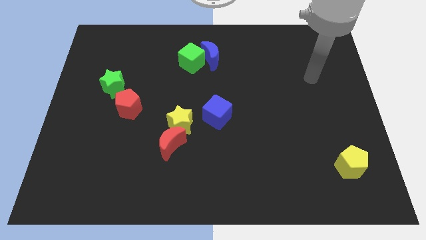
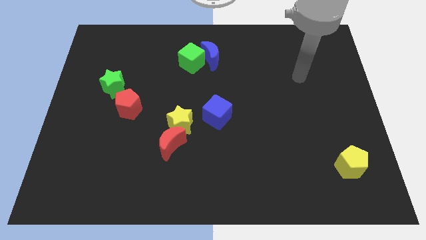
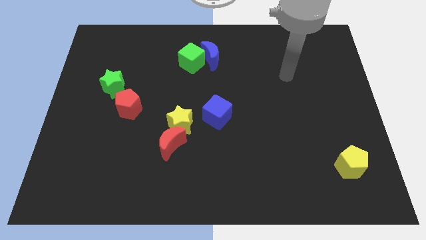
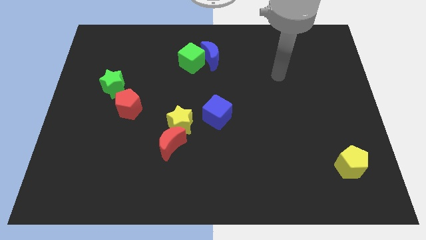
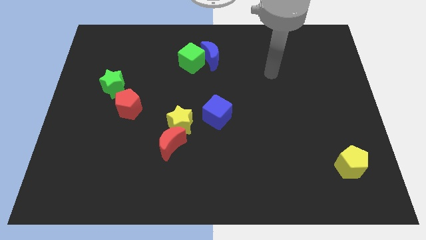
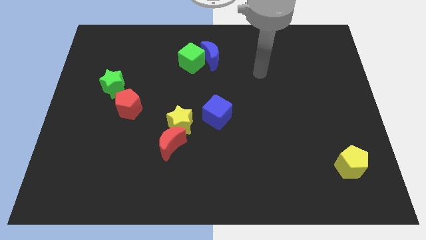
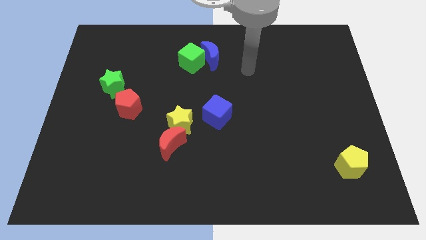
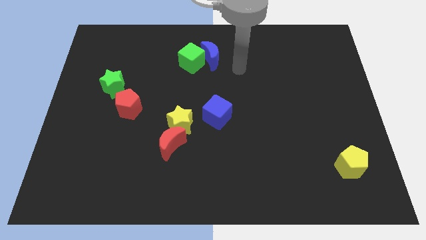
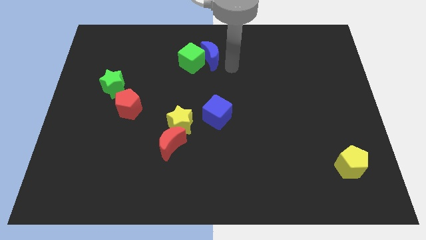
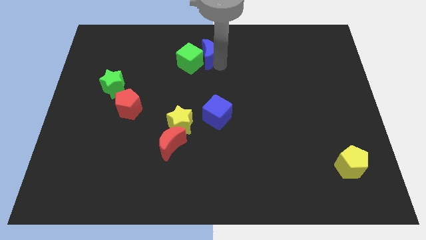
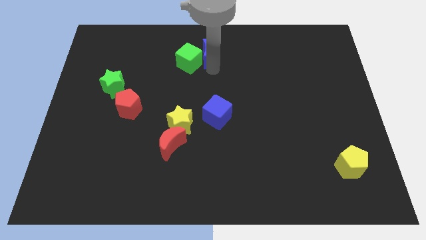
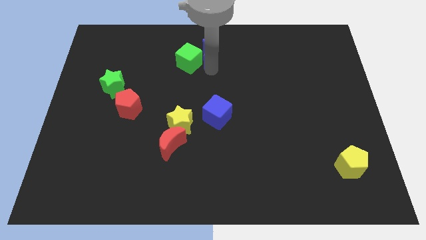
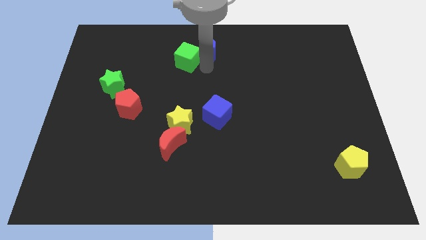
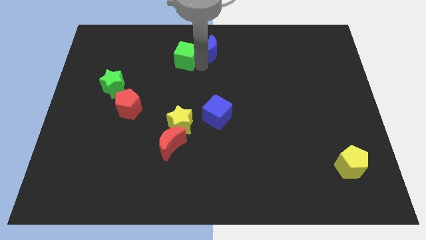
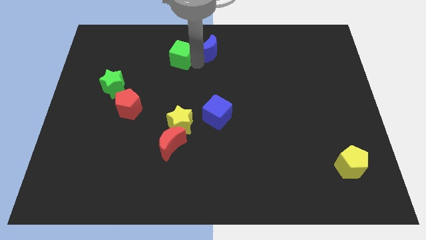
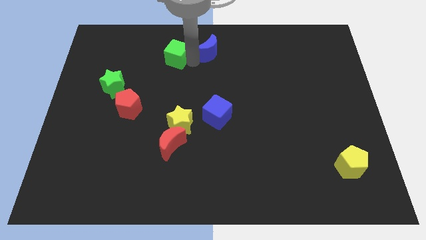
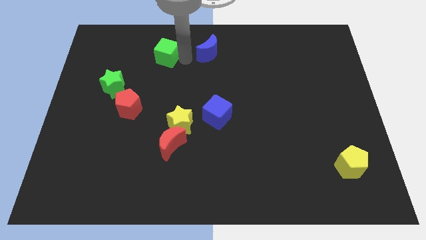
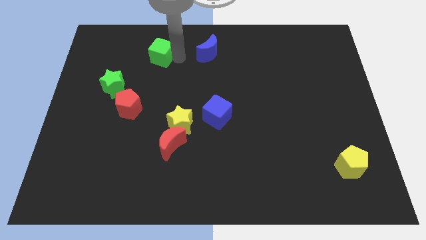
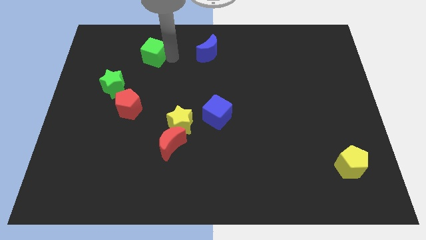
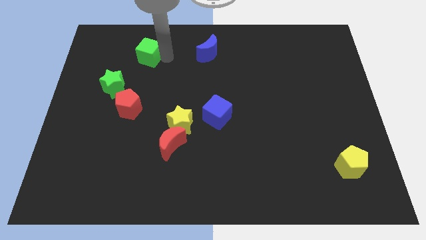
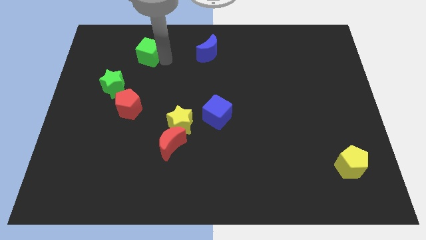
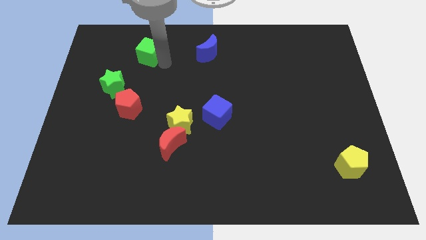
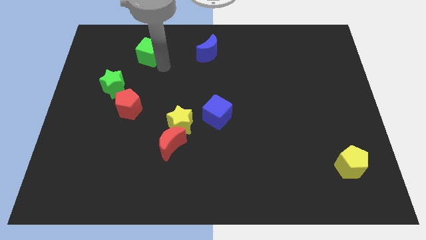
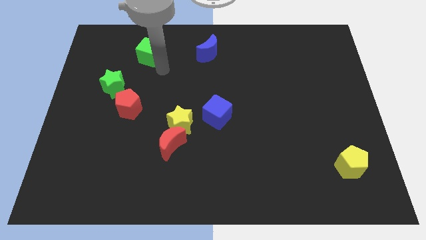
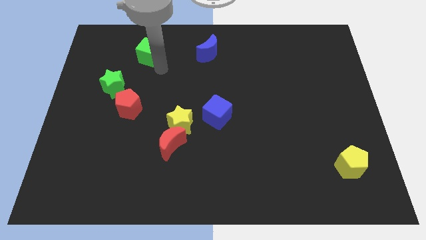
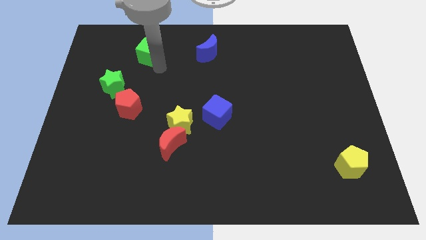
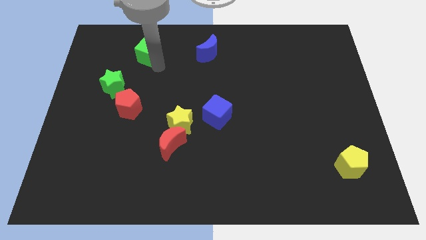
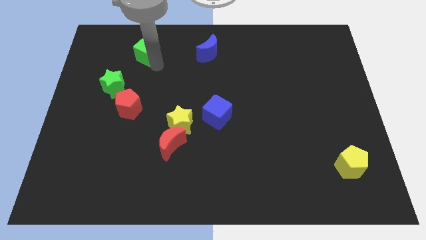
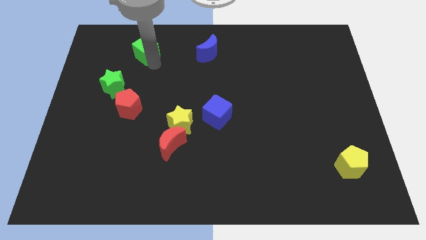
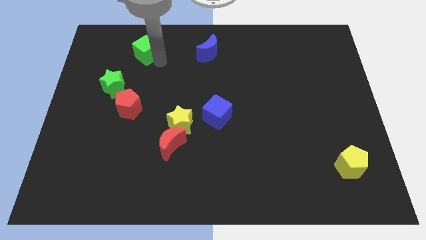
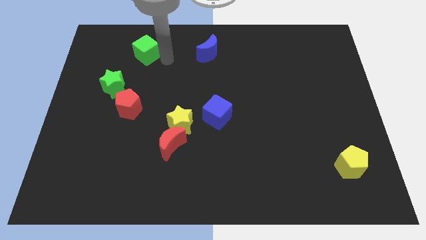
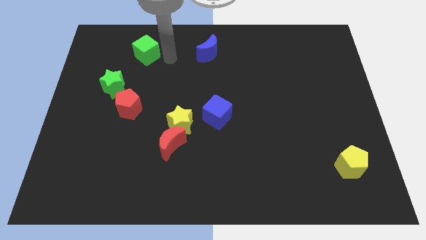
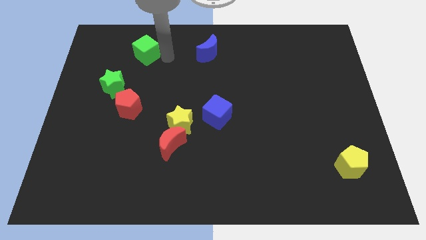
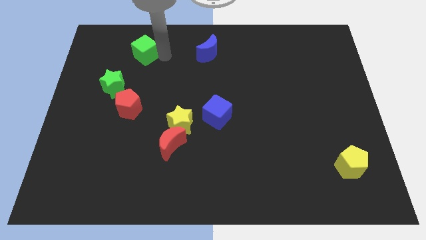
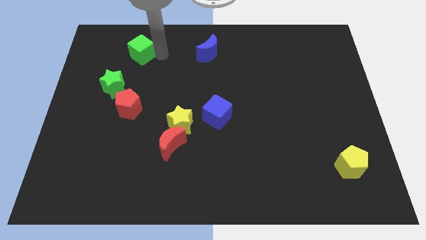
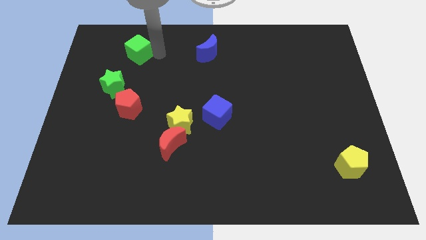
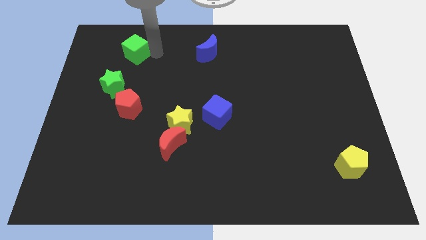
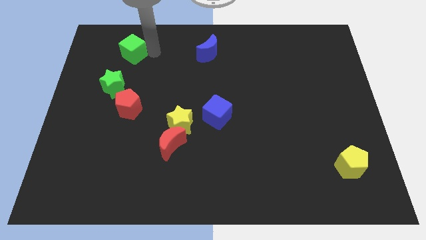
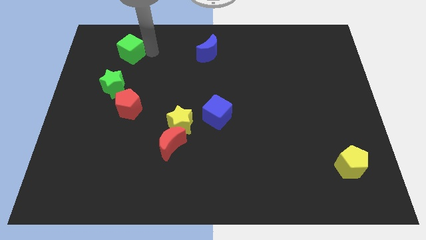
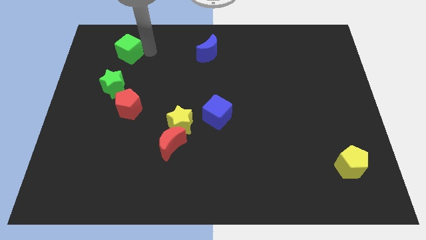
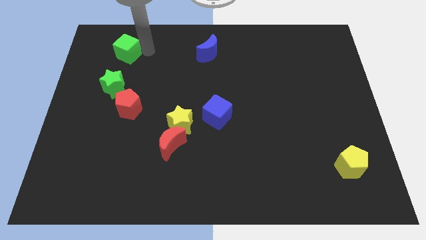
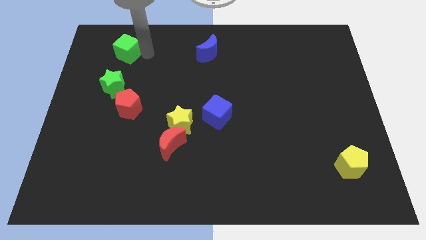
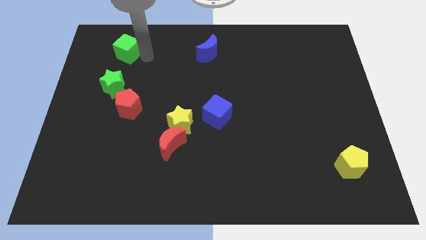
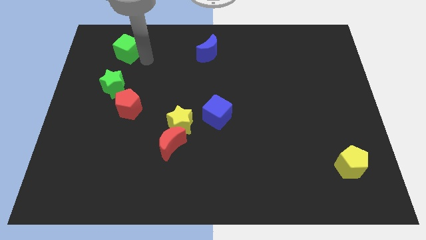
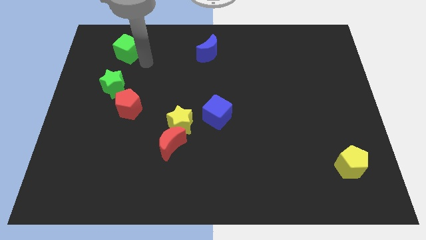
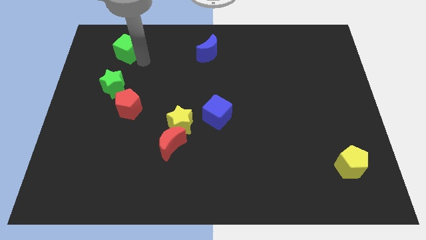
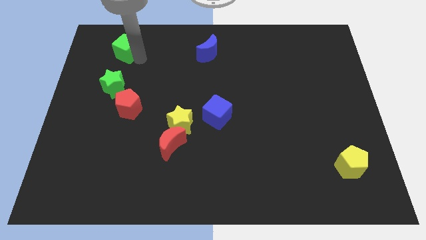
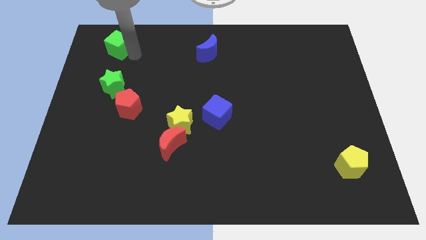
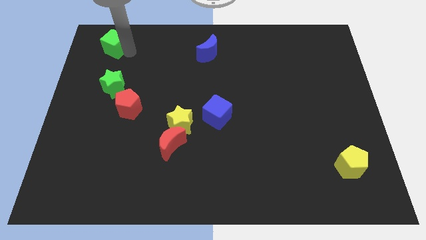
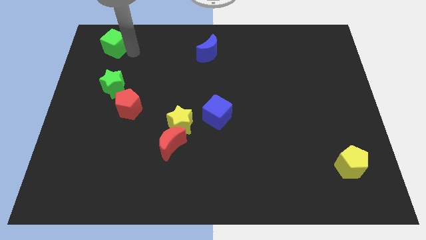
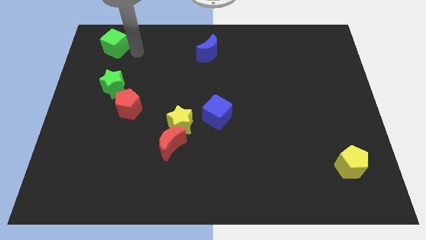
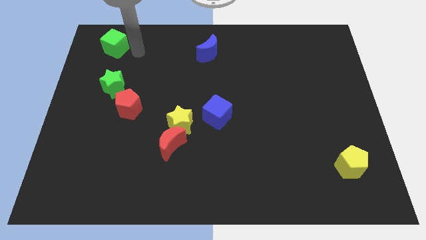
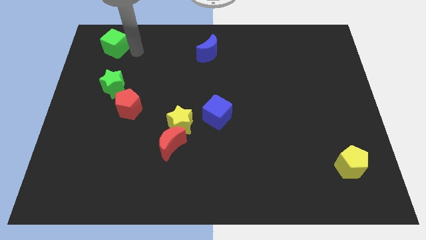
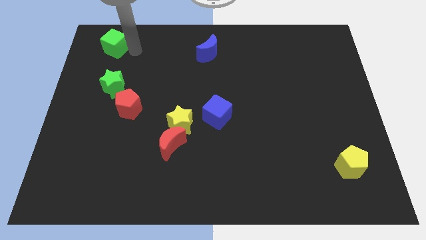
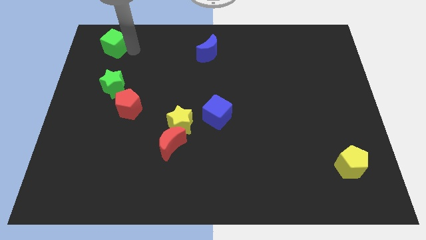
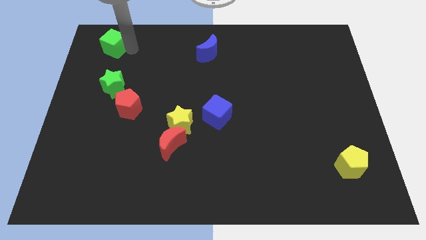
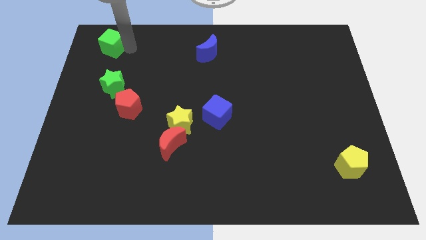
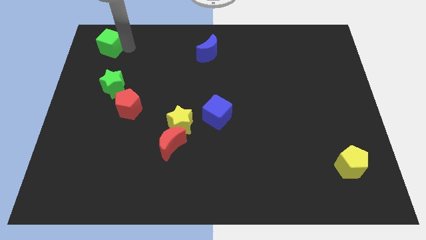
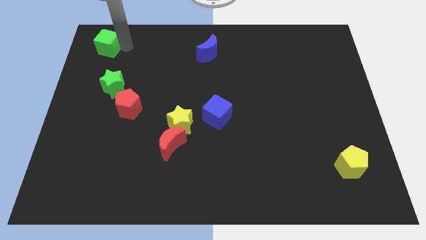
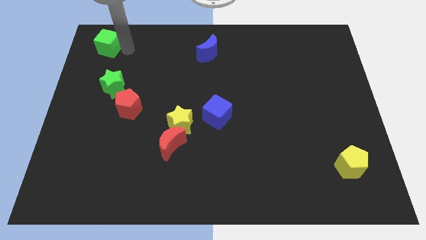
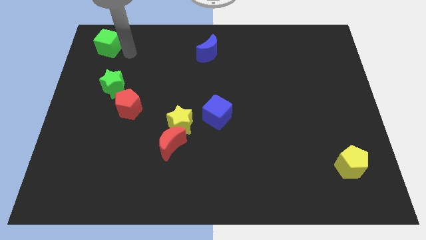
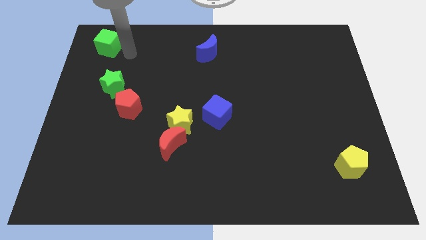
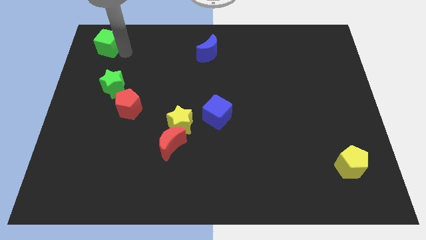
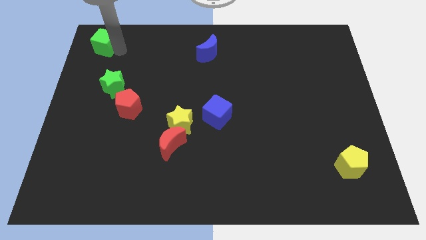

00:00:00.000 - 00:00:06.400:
push the green cube to the top left
